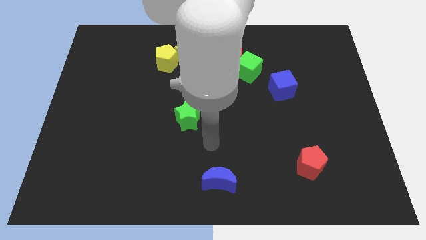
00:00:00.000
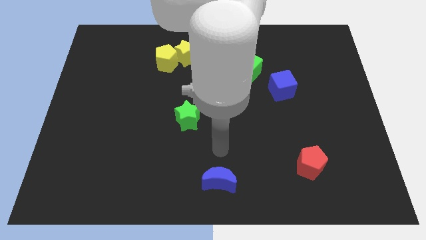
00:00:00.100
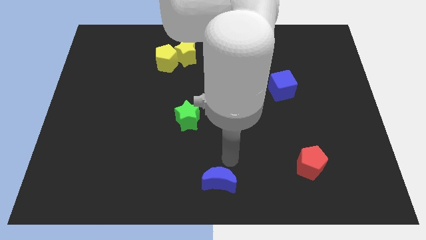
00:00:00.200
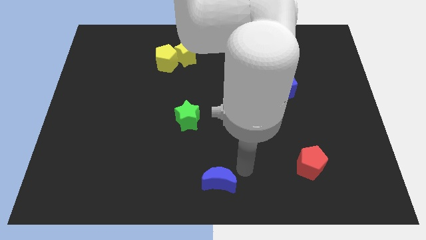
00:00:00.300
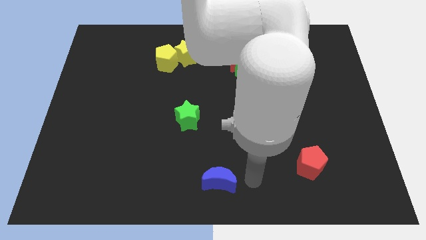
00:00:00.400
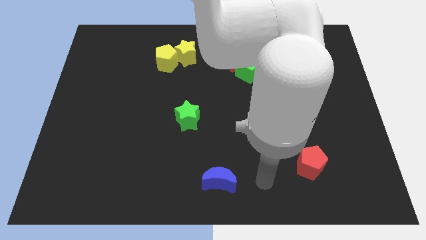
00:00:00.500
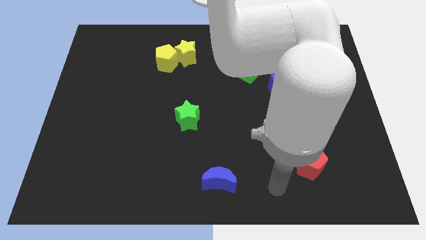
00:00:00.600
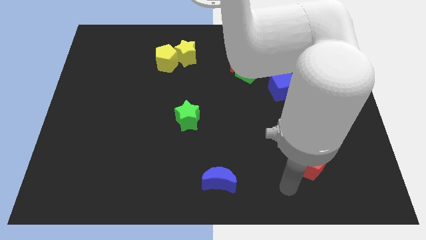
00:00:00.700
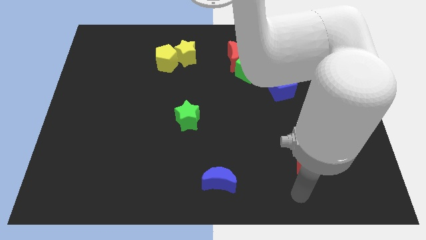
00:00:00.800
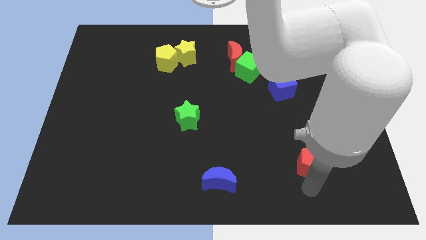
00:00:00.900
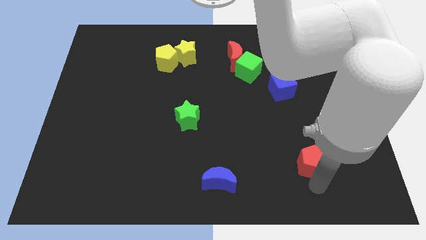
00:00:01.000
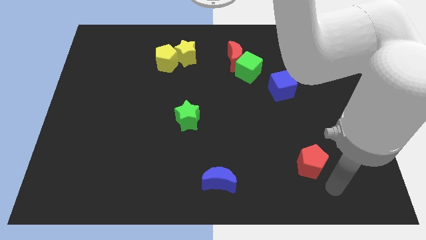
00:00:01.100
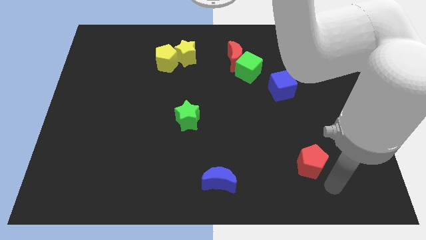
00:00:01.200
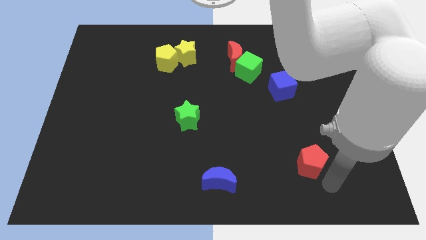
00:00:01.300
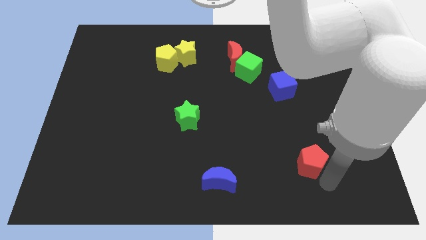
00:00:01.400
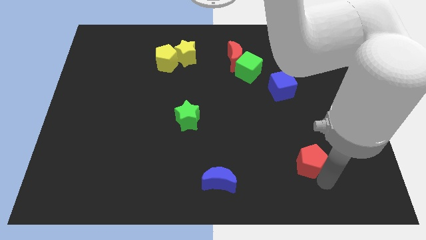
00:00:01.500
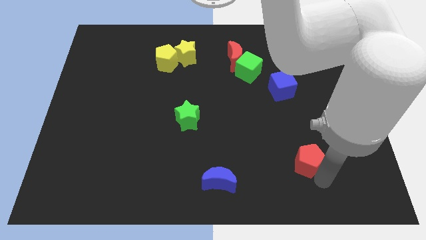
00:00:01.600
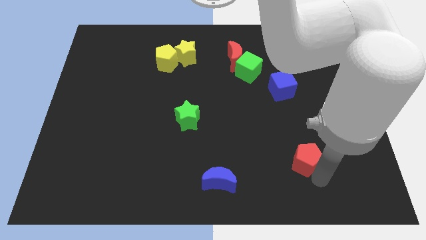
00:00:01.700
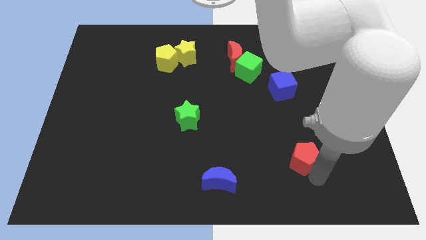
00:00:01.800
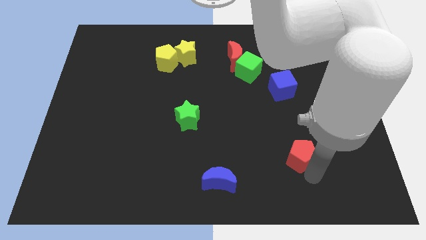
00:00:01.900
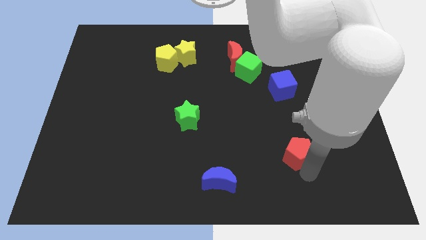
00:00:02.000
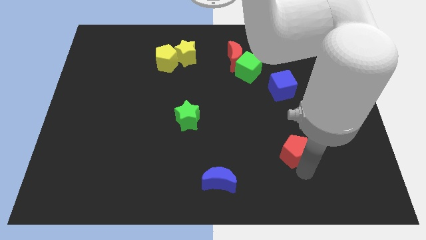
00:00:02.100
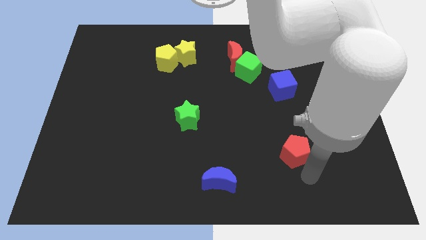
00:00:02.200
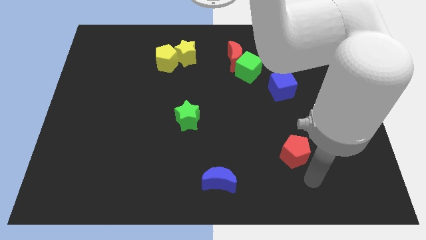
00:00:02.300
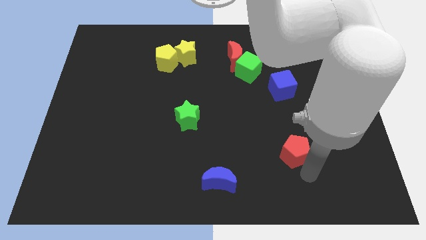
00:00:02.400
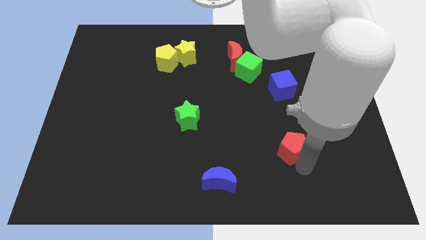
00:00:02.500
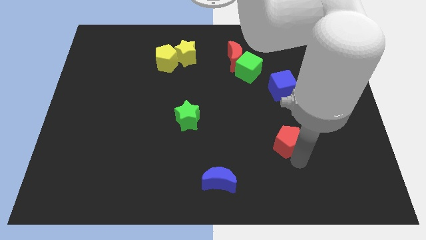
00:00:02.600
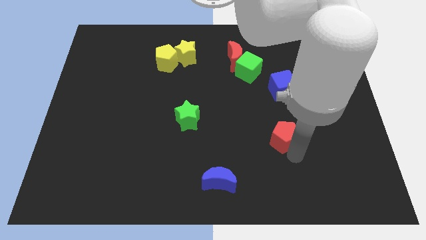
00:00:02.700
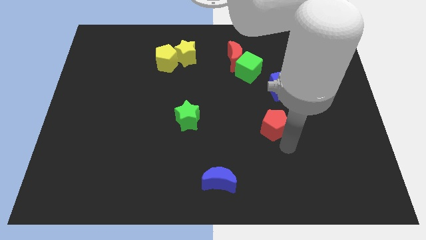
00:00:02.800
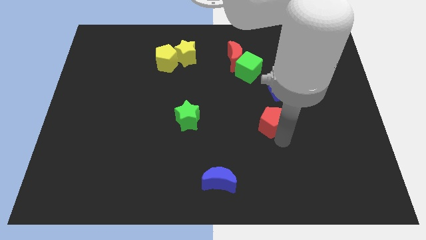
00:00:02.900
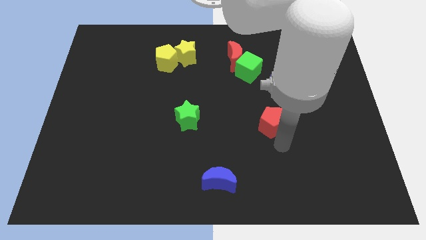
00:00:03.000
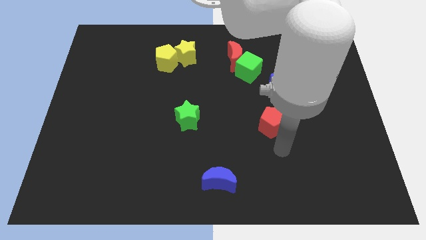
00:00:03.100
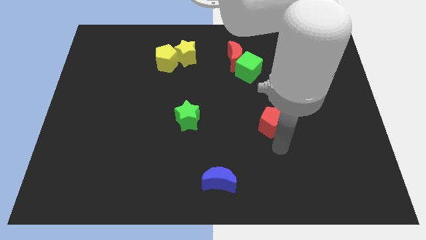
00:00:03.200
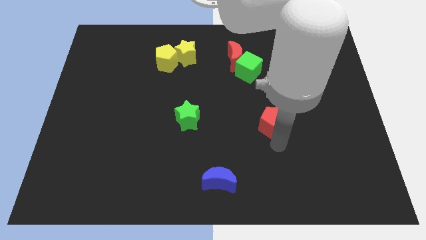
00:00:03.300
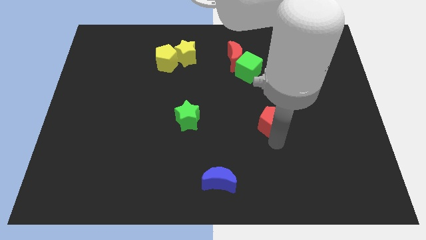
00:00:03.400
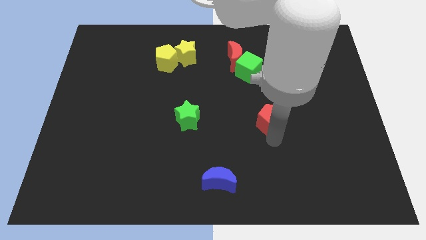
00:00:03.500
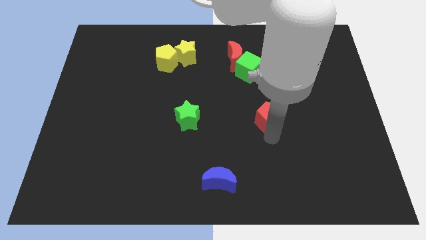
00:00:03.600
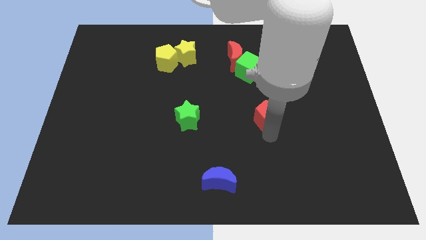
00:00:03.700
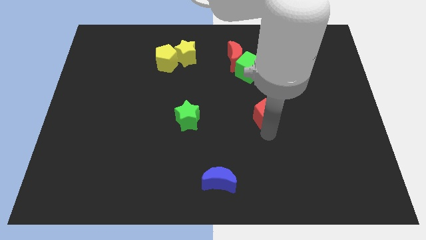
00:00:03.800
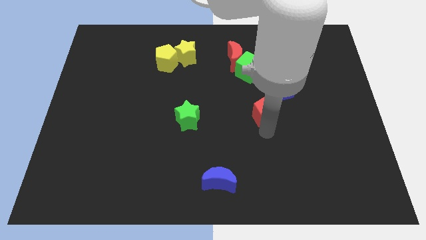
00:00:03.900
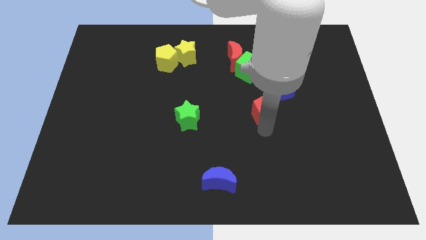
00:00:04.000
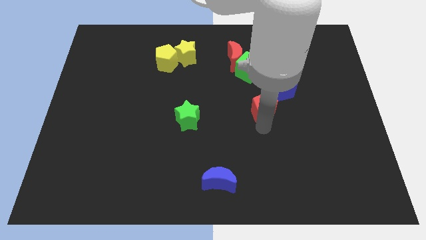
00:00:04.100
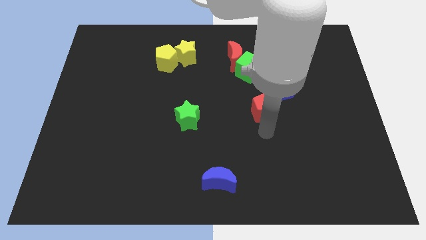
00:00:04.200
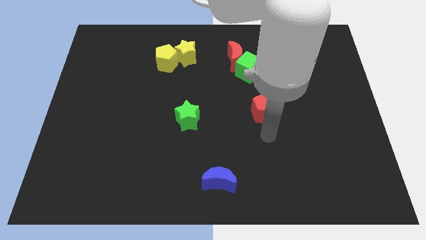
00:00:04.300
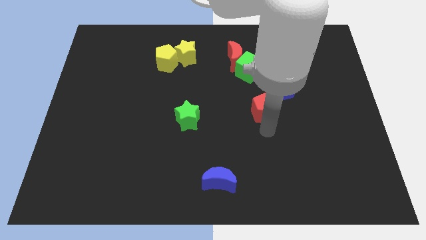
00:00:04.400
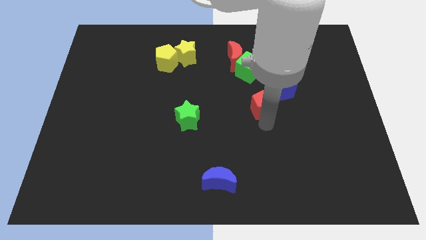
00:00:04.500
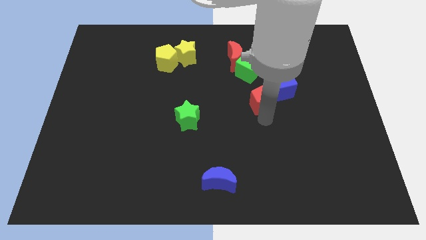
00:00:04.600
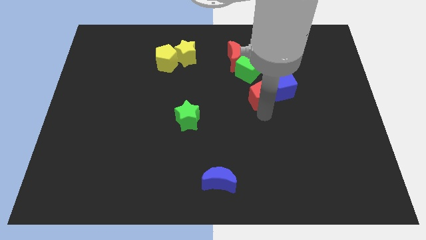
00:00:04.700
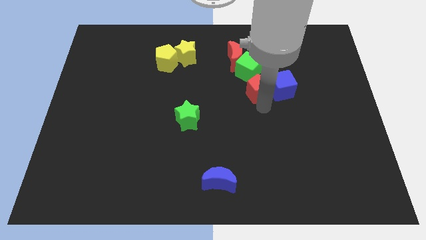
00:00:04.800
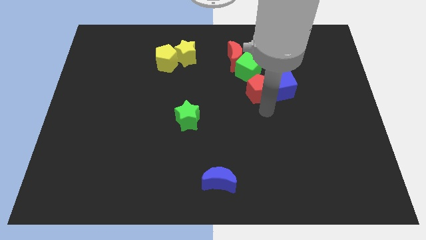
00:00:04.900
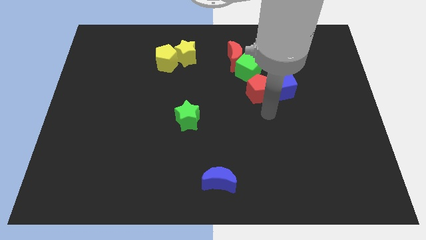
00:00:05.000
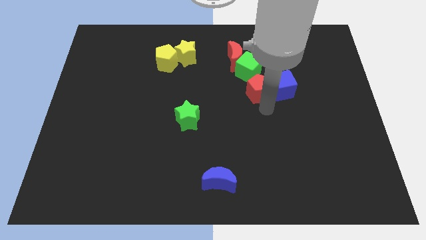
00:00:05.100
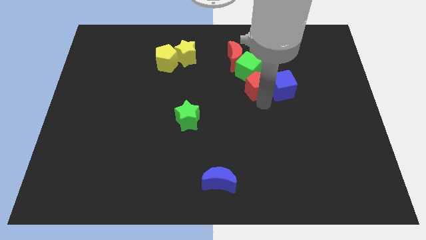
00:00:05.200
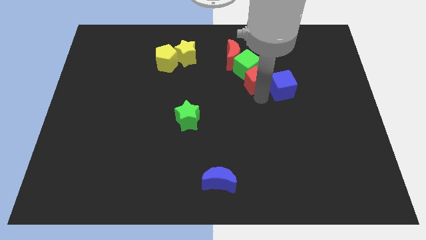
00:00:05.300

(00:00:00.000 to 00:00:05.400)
push the red pentagon to the green cube

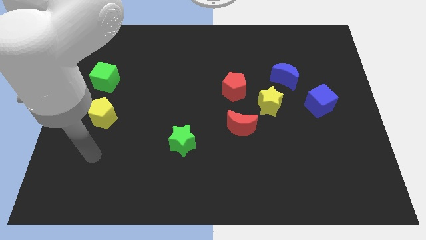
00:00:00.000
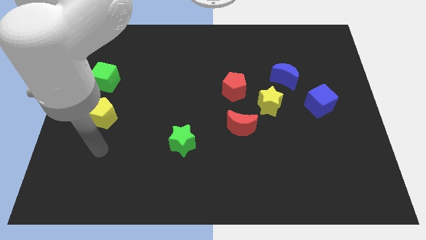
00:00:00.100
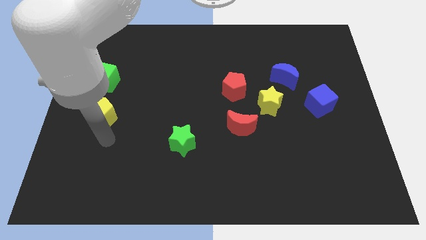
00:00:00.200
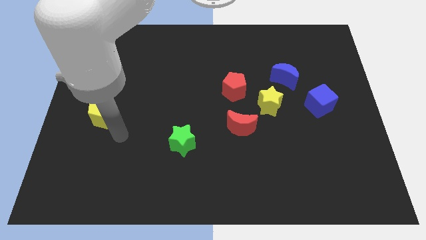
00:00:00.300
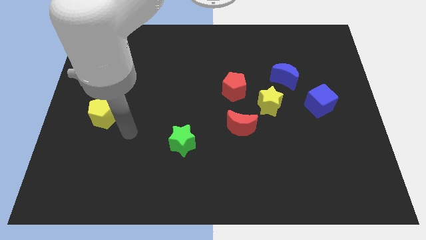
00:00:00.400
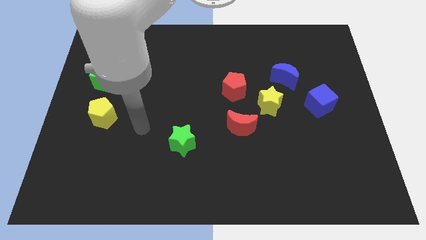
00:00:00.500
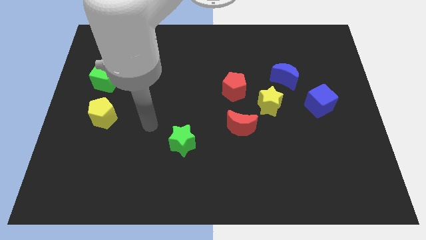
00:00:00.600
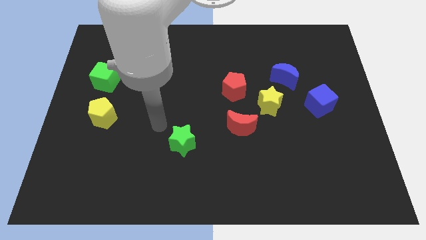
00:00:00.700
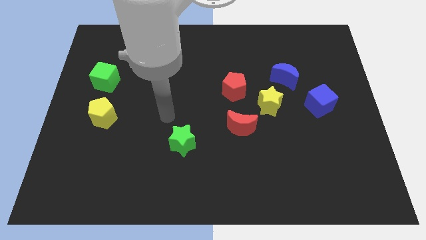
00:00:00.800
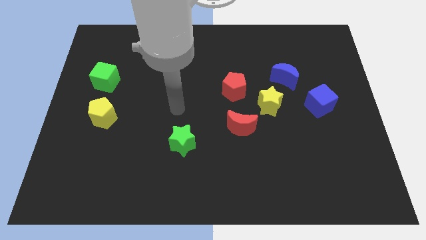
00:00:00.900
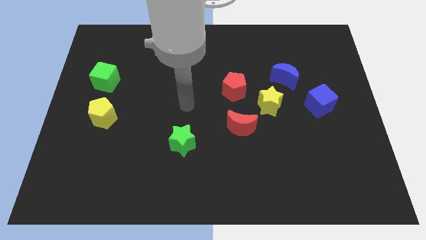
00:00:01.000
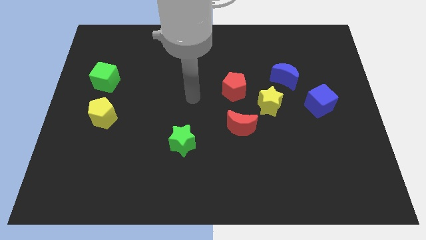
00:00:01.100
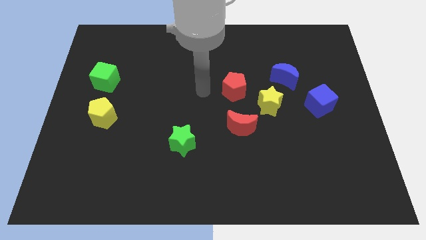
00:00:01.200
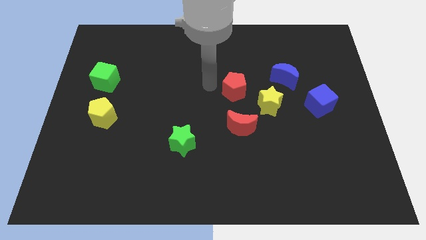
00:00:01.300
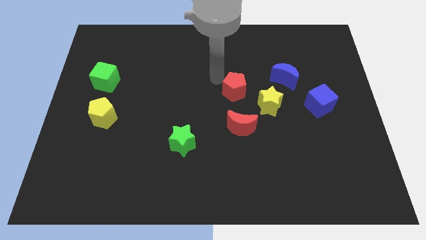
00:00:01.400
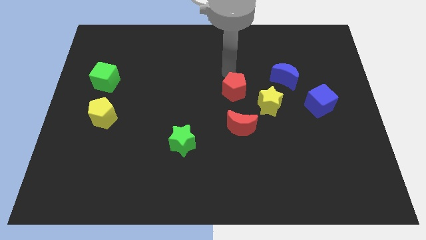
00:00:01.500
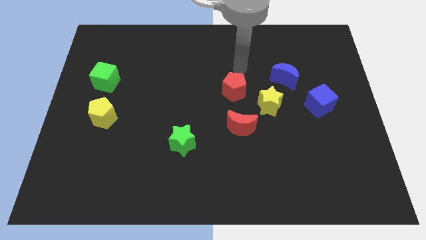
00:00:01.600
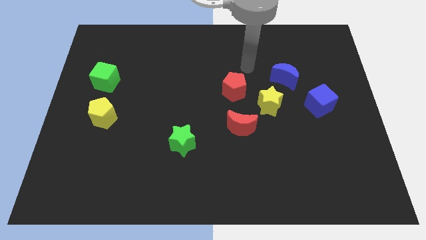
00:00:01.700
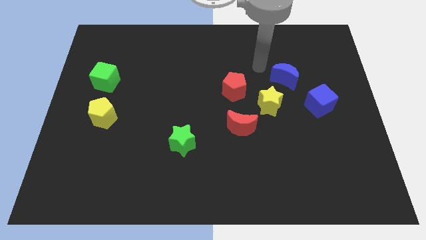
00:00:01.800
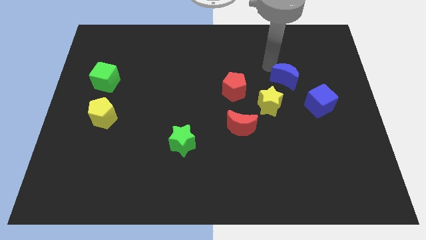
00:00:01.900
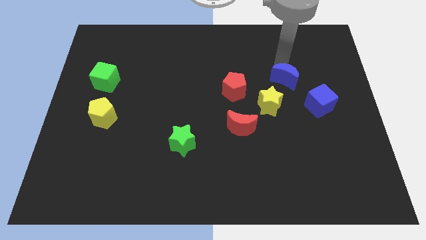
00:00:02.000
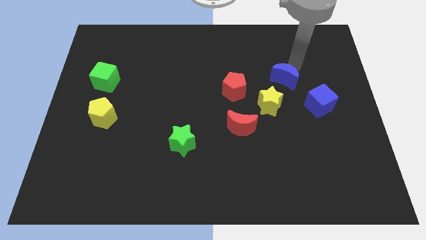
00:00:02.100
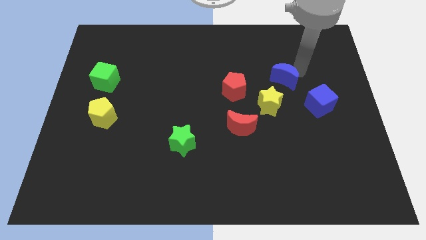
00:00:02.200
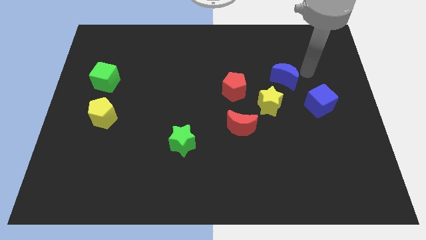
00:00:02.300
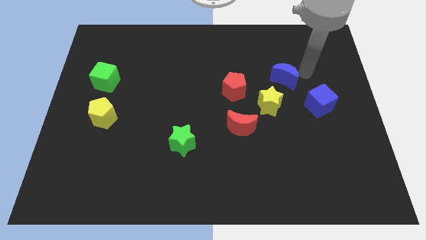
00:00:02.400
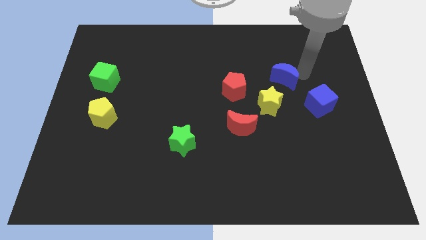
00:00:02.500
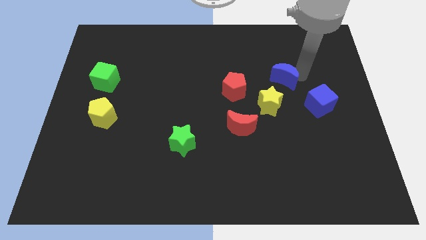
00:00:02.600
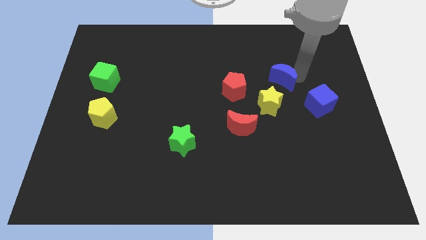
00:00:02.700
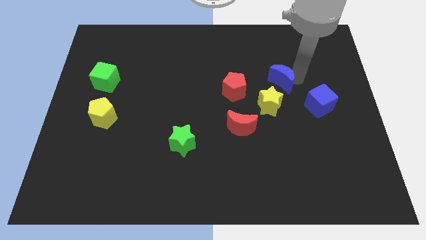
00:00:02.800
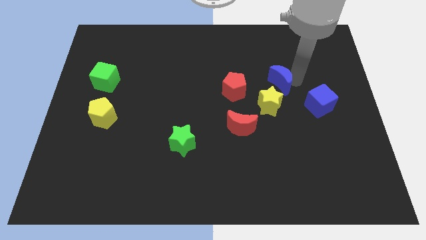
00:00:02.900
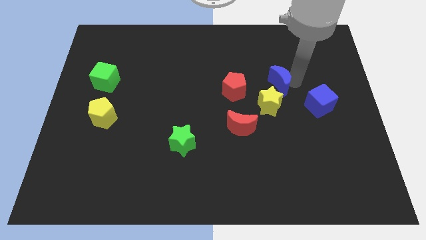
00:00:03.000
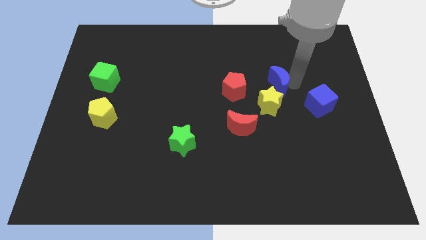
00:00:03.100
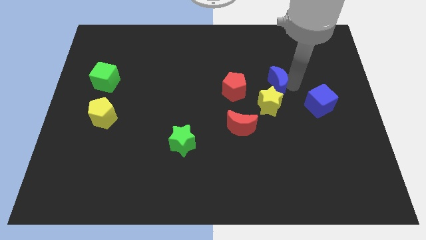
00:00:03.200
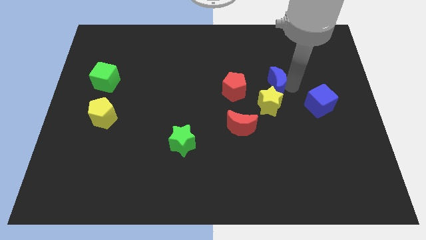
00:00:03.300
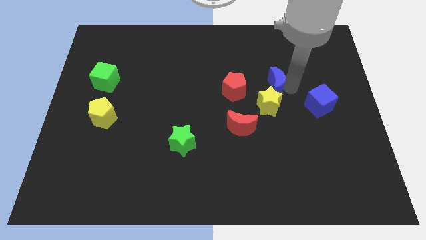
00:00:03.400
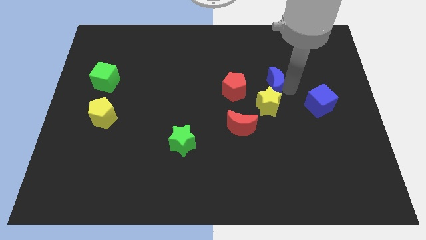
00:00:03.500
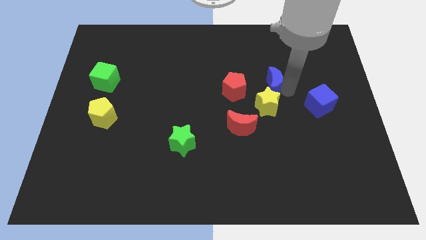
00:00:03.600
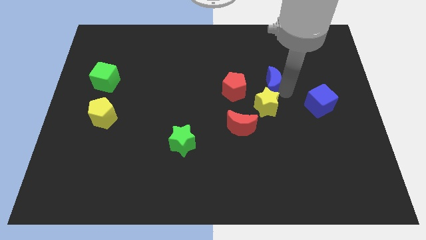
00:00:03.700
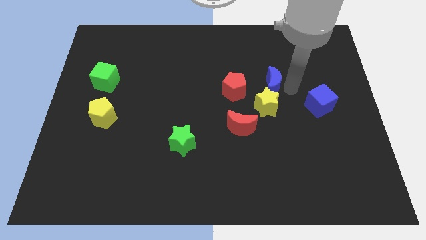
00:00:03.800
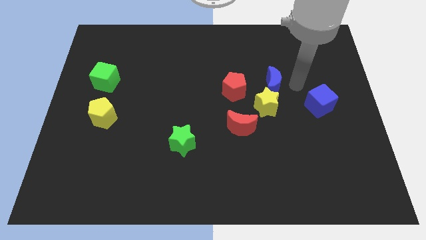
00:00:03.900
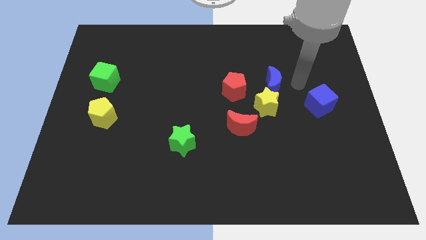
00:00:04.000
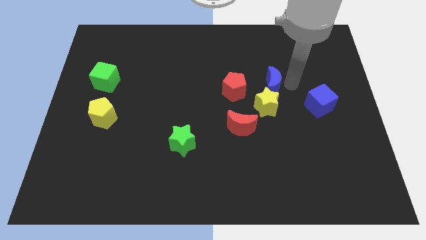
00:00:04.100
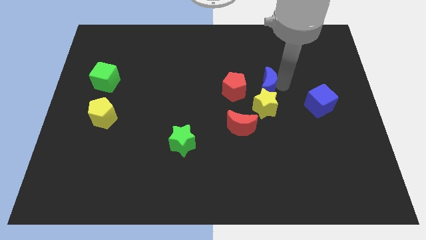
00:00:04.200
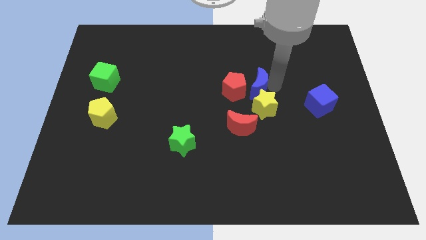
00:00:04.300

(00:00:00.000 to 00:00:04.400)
push the blue moon towards the red pentagon
